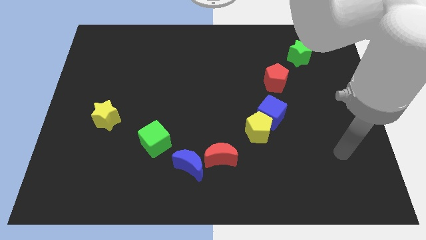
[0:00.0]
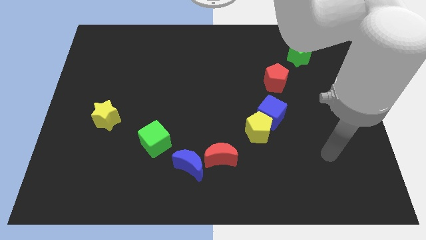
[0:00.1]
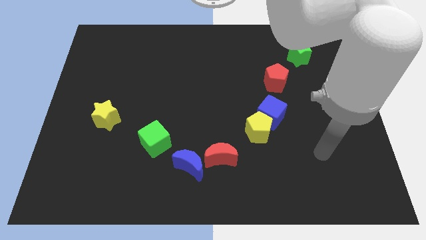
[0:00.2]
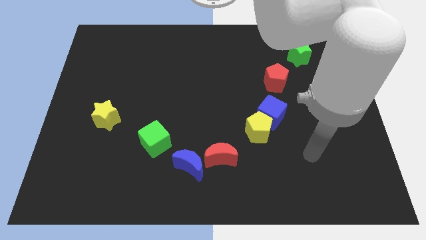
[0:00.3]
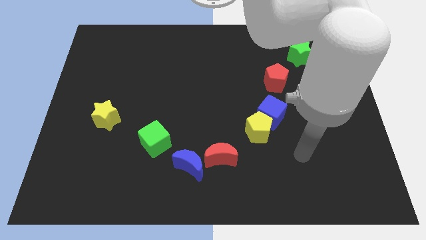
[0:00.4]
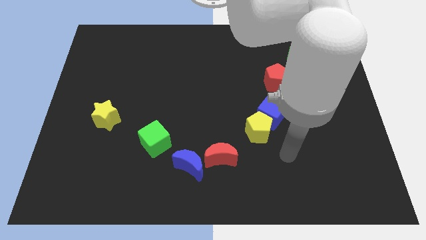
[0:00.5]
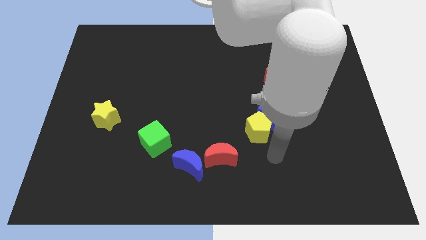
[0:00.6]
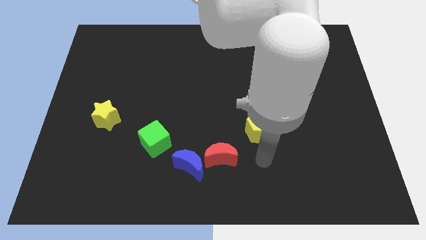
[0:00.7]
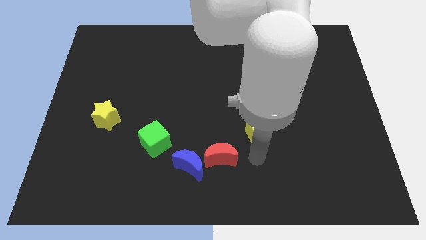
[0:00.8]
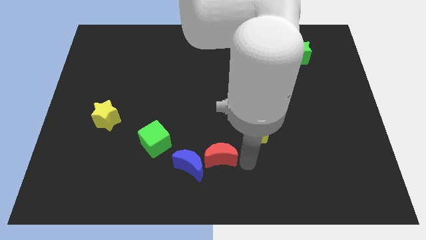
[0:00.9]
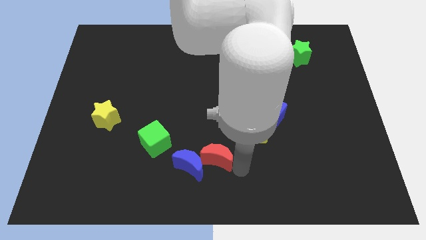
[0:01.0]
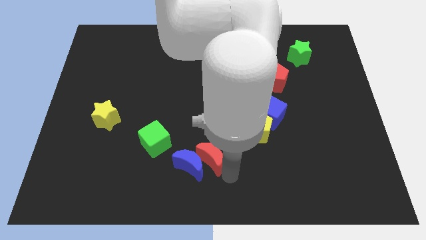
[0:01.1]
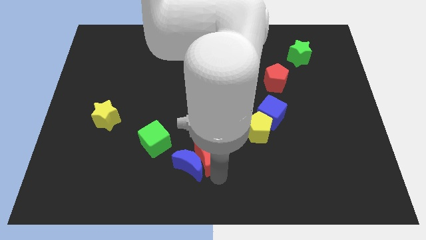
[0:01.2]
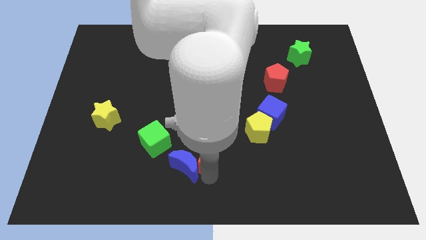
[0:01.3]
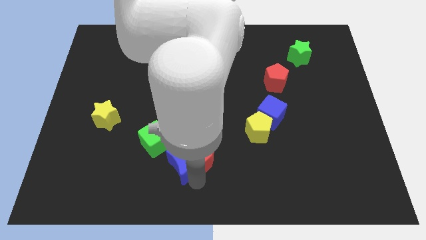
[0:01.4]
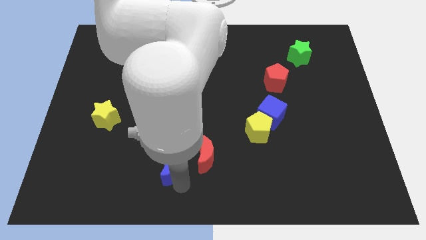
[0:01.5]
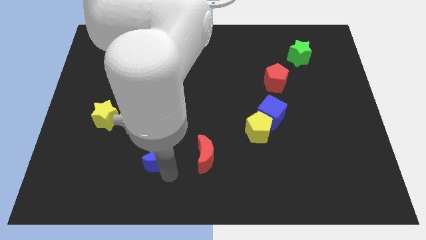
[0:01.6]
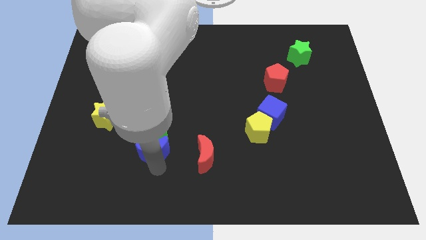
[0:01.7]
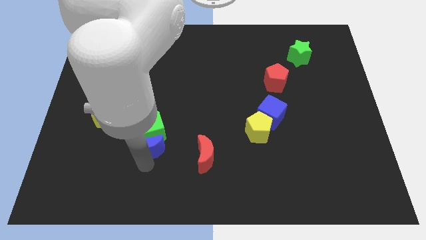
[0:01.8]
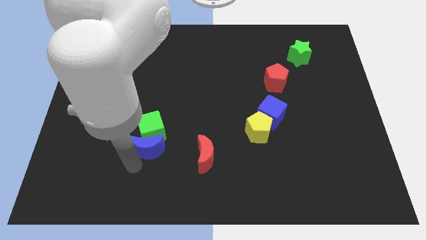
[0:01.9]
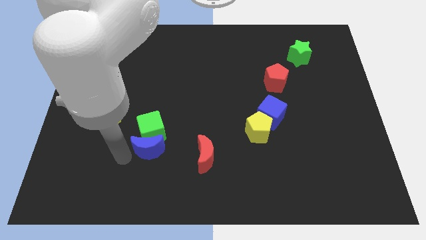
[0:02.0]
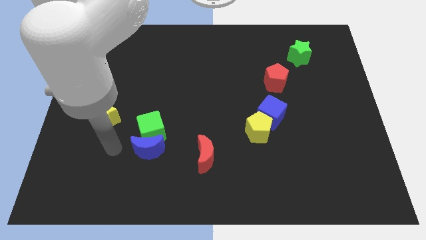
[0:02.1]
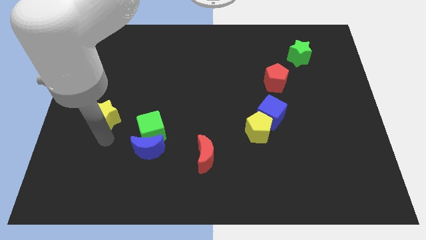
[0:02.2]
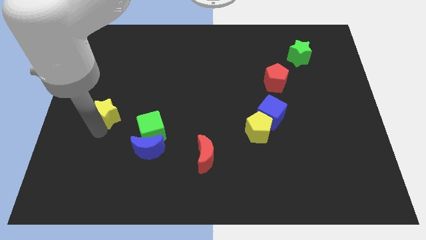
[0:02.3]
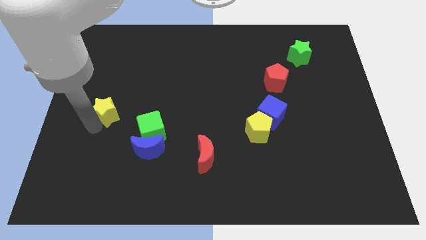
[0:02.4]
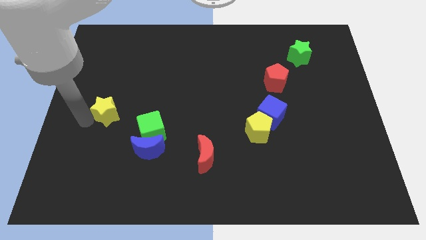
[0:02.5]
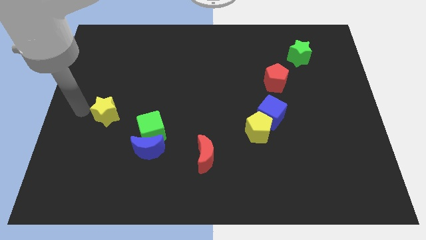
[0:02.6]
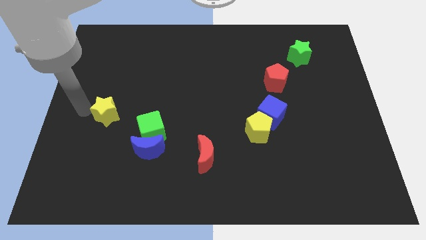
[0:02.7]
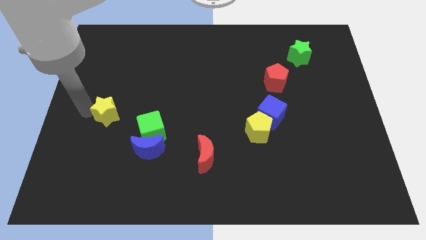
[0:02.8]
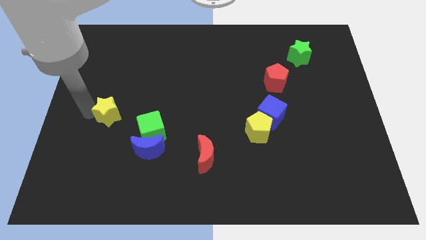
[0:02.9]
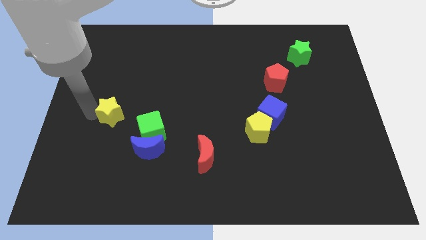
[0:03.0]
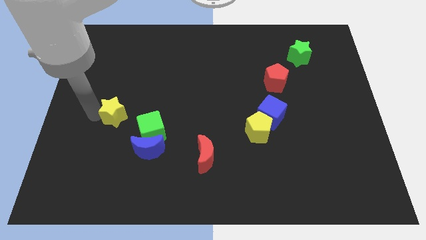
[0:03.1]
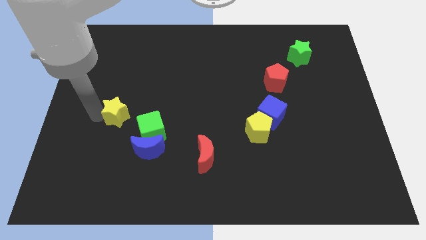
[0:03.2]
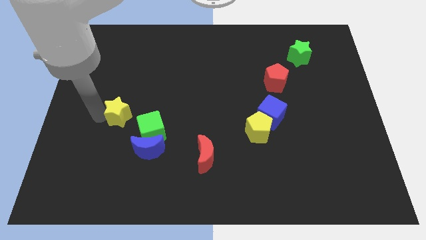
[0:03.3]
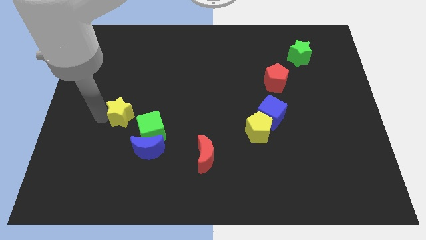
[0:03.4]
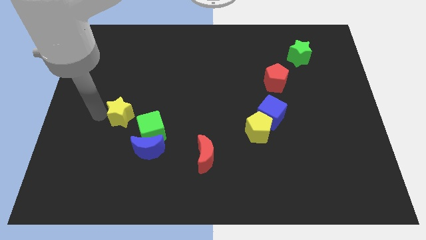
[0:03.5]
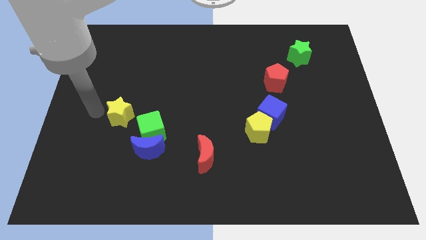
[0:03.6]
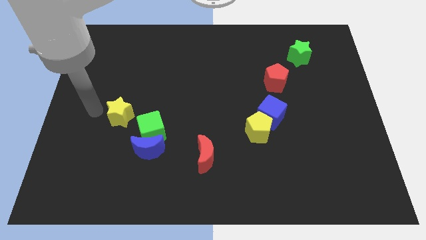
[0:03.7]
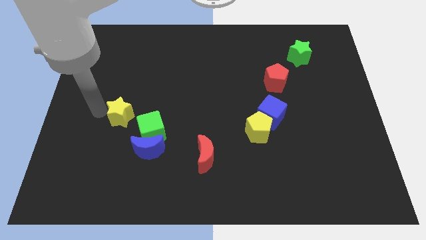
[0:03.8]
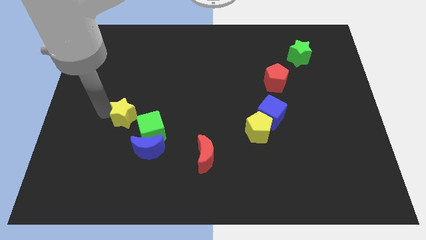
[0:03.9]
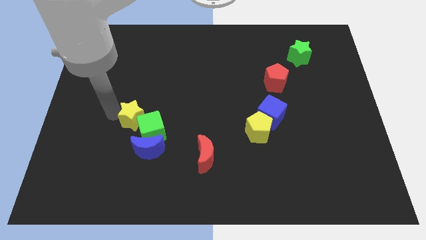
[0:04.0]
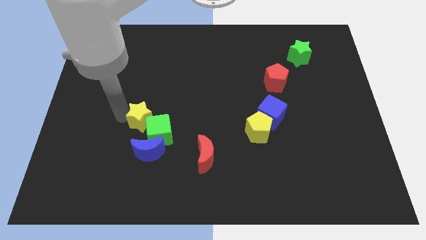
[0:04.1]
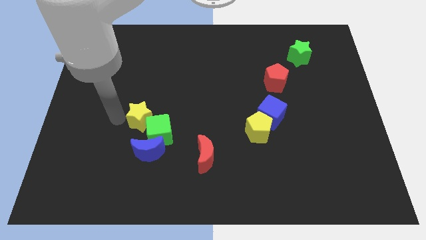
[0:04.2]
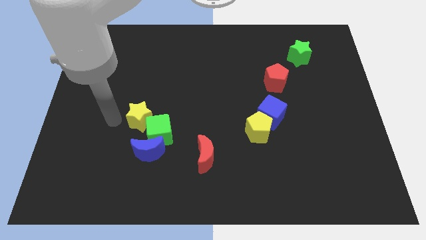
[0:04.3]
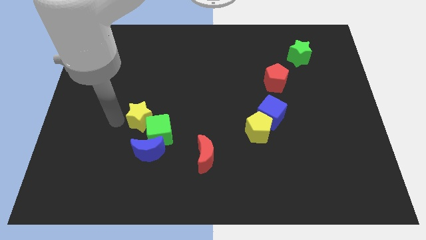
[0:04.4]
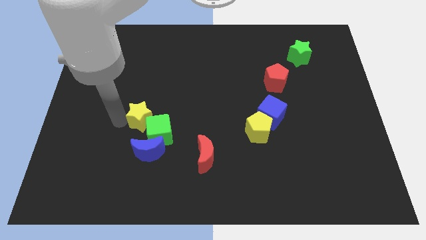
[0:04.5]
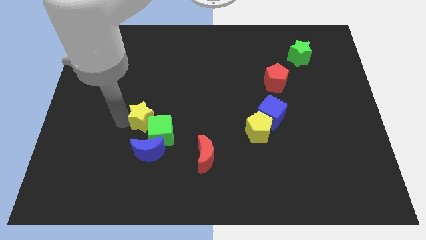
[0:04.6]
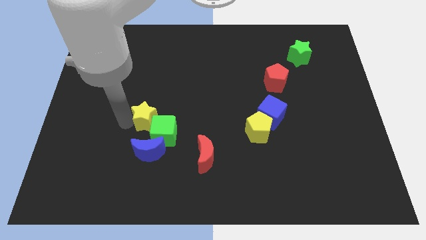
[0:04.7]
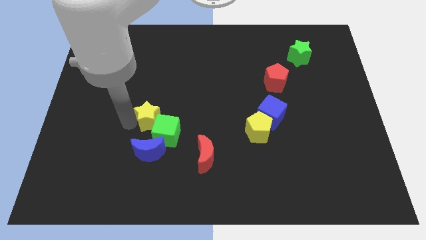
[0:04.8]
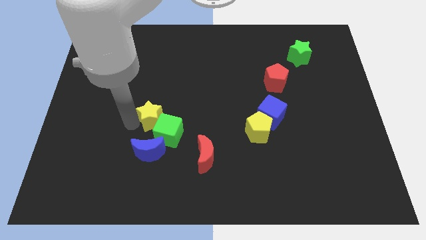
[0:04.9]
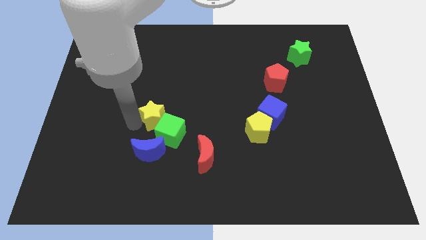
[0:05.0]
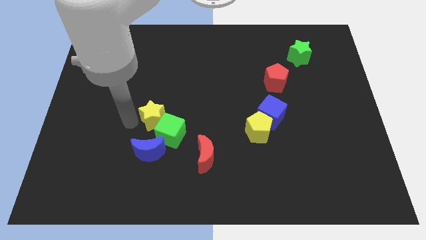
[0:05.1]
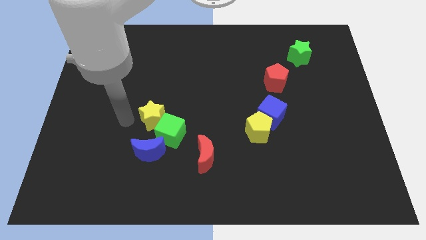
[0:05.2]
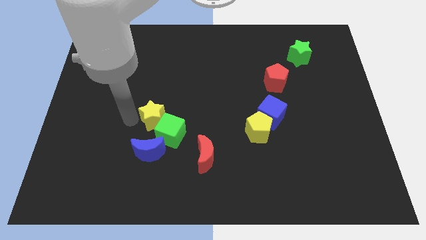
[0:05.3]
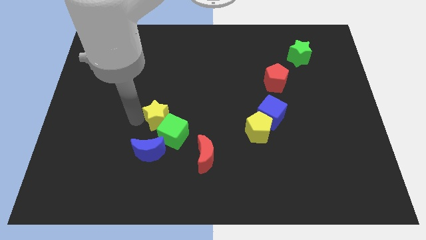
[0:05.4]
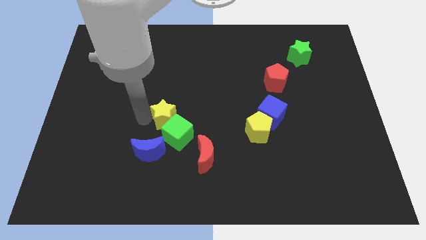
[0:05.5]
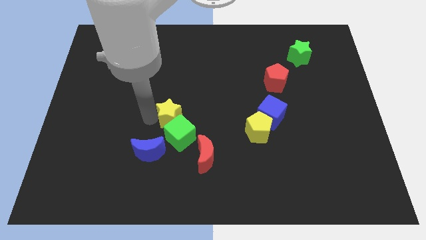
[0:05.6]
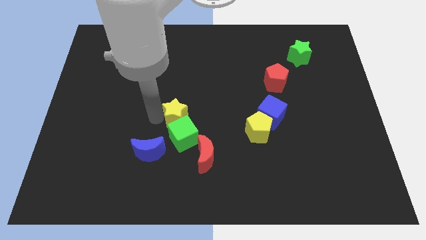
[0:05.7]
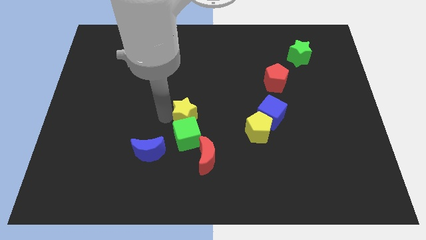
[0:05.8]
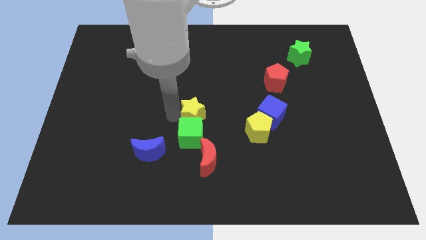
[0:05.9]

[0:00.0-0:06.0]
push the yellow star to the right

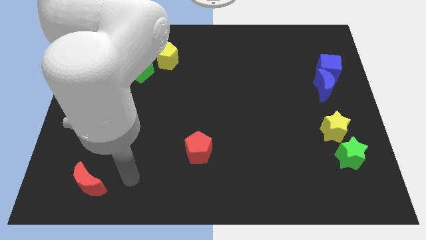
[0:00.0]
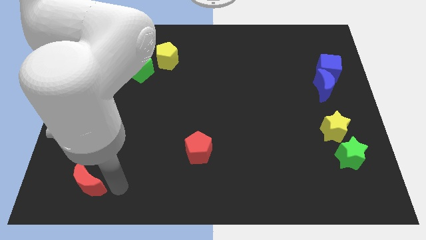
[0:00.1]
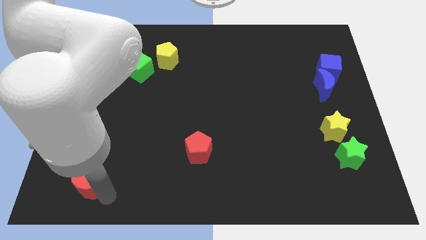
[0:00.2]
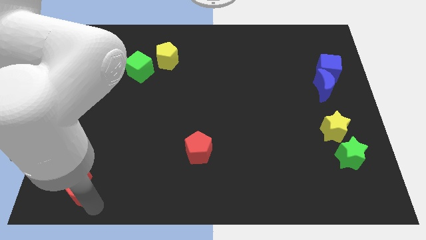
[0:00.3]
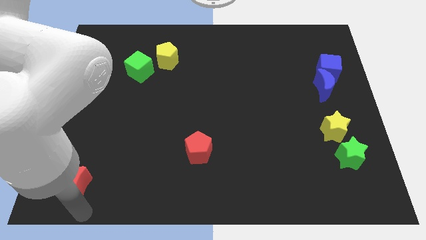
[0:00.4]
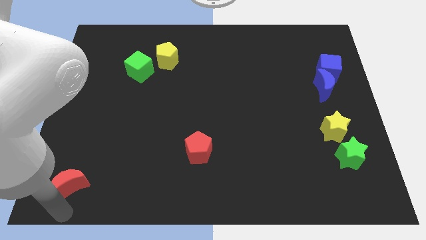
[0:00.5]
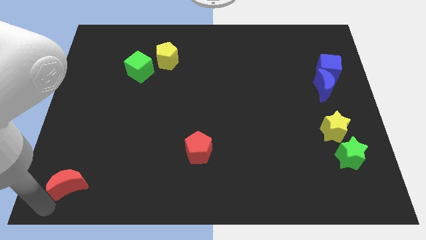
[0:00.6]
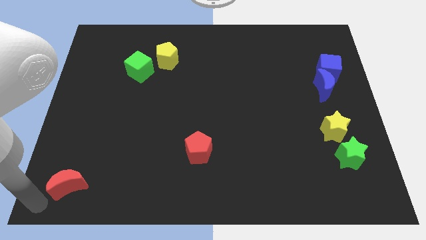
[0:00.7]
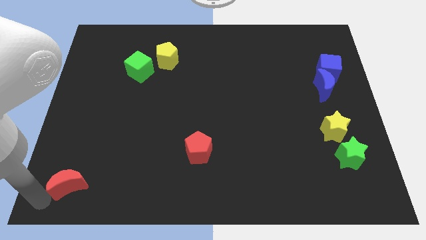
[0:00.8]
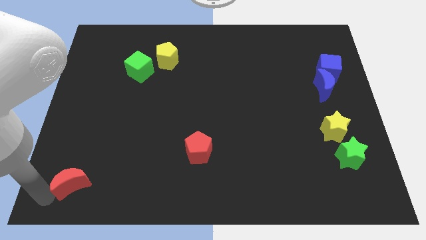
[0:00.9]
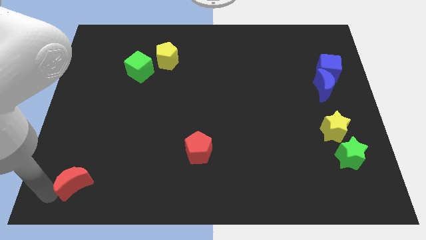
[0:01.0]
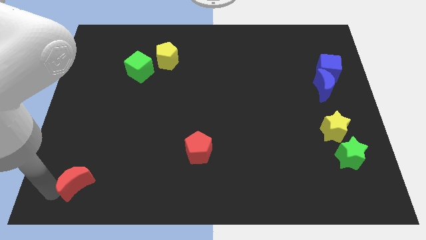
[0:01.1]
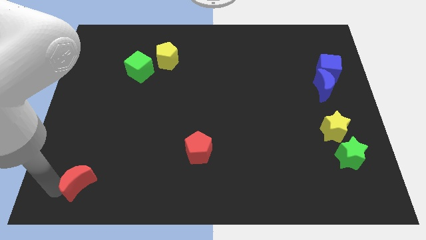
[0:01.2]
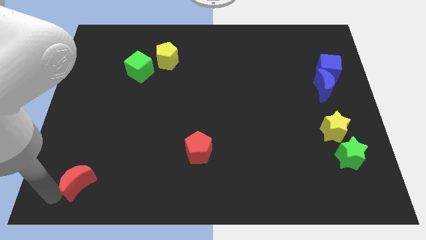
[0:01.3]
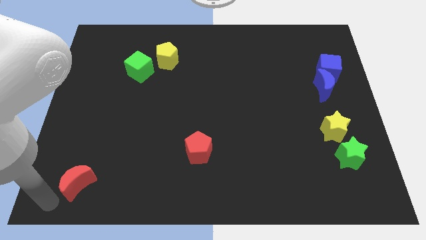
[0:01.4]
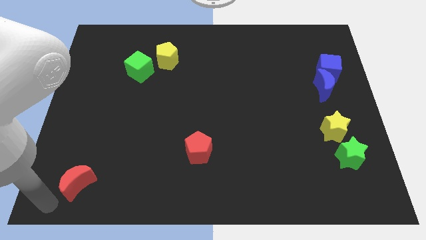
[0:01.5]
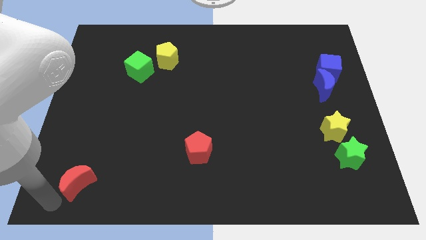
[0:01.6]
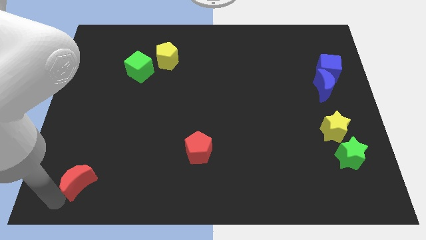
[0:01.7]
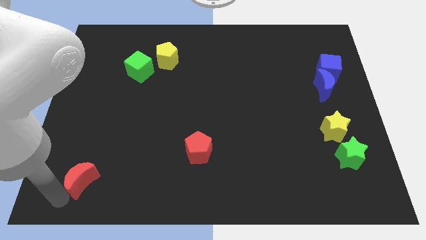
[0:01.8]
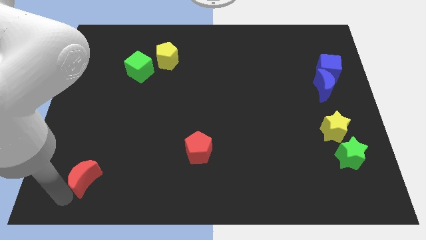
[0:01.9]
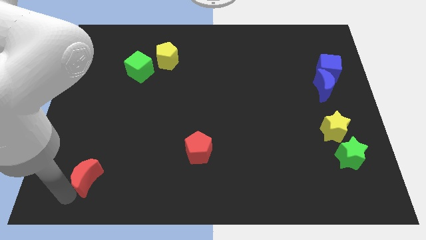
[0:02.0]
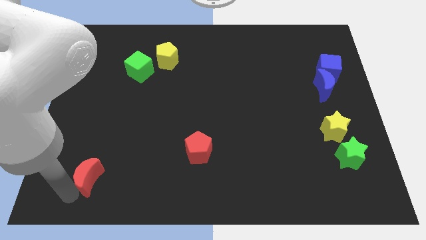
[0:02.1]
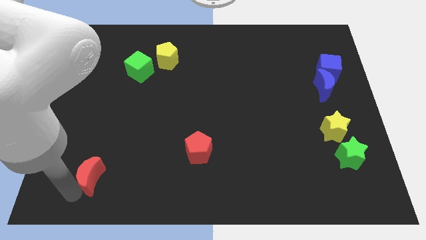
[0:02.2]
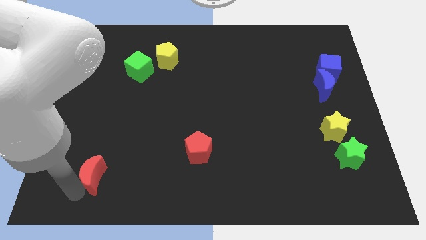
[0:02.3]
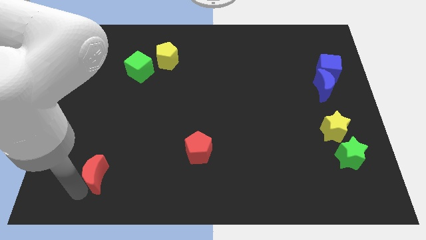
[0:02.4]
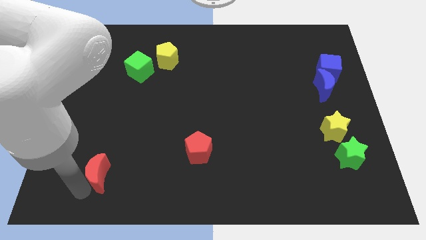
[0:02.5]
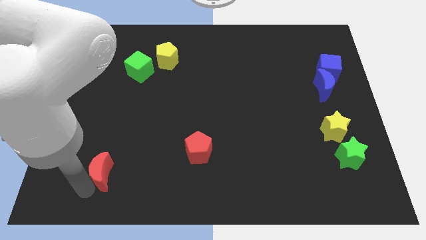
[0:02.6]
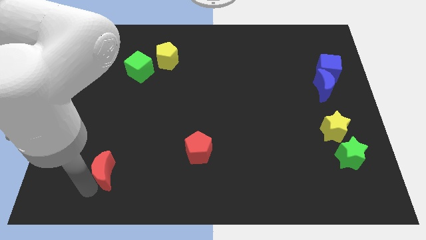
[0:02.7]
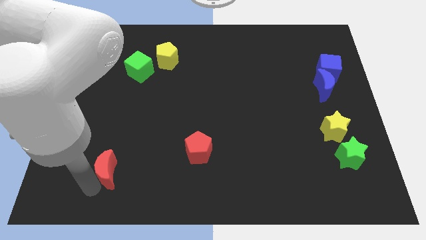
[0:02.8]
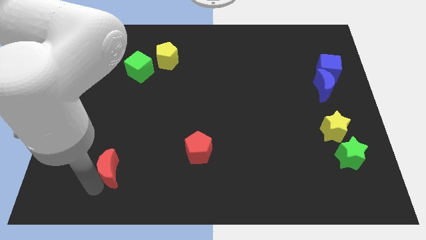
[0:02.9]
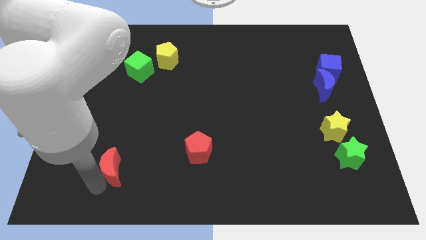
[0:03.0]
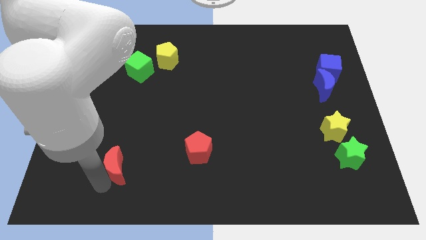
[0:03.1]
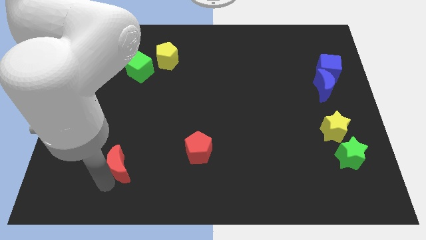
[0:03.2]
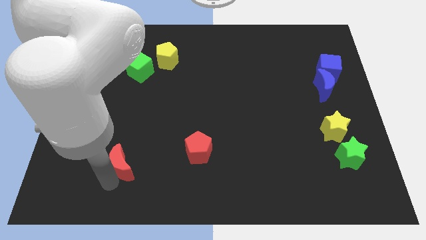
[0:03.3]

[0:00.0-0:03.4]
slightly slide the red moon upwards and then right
